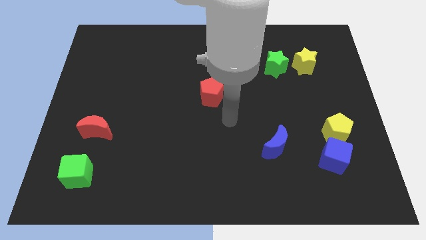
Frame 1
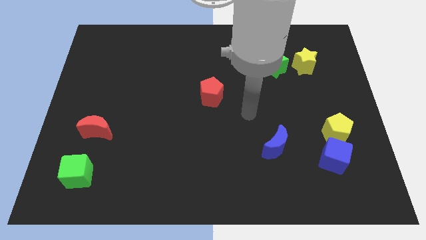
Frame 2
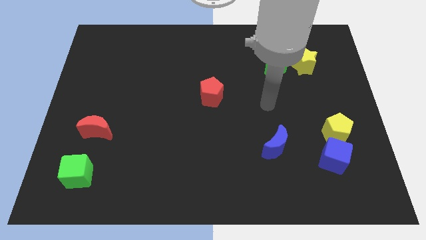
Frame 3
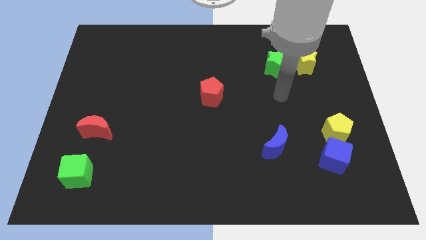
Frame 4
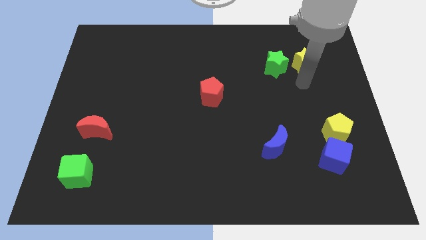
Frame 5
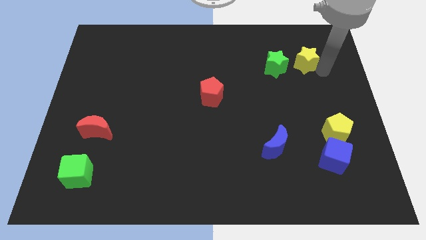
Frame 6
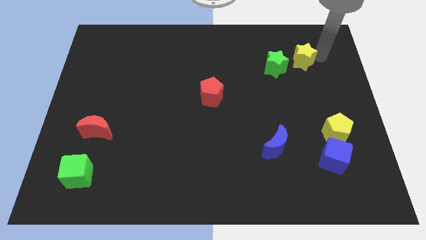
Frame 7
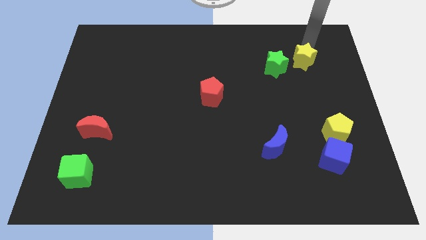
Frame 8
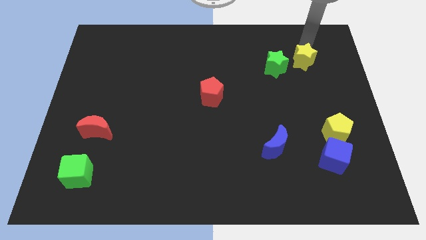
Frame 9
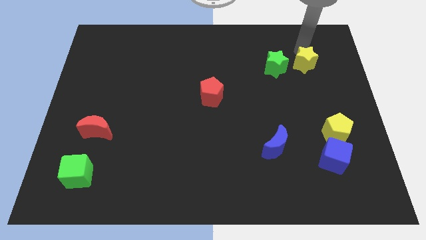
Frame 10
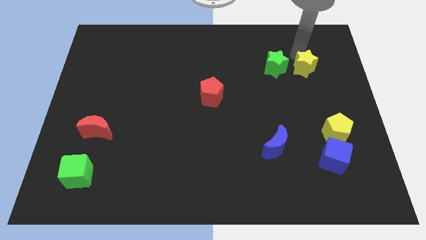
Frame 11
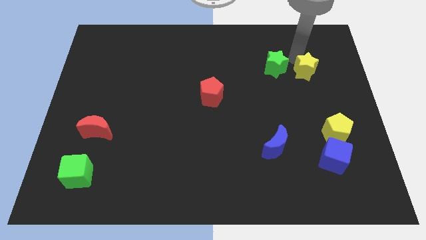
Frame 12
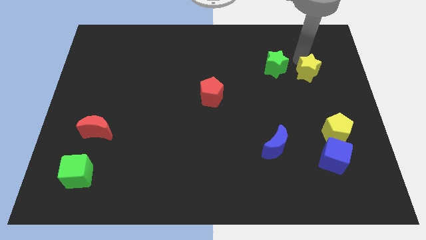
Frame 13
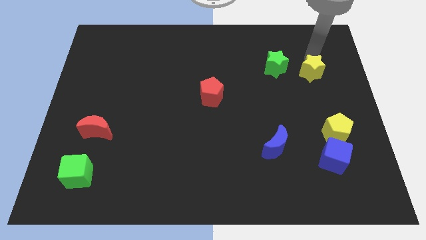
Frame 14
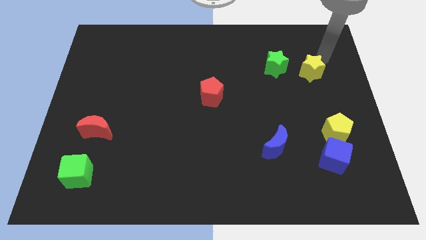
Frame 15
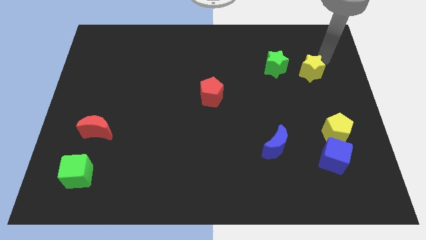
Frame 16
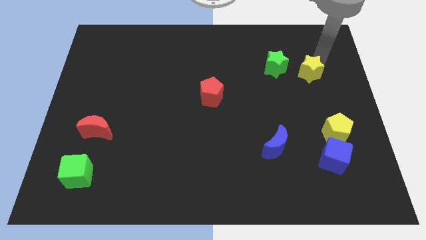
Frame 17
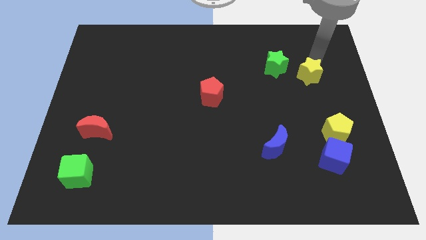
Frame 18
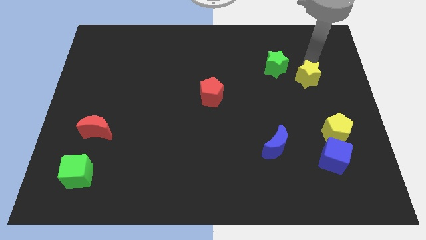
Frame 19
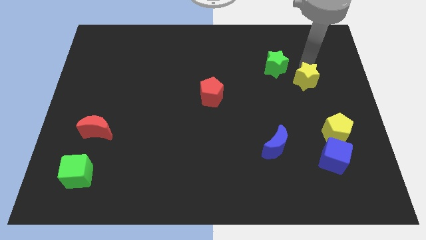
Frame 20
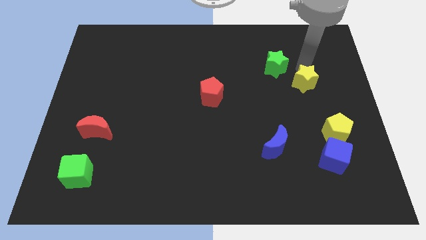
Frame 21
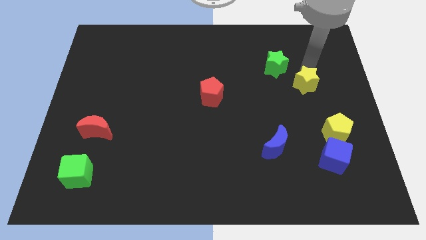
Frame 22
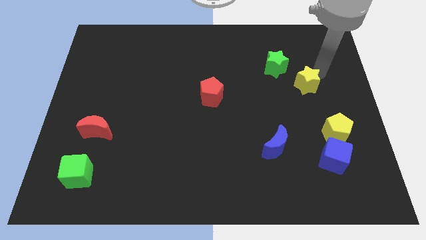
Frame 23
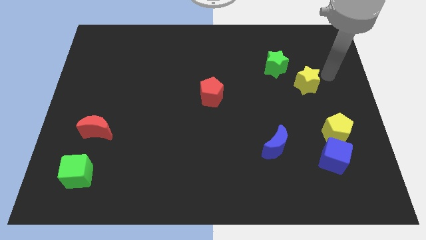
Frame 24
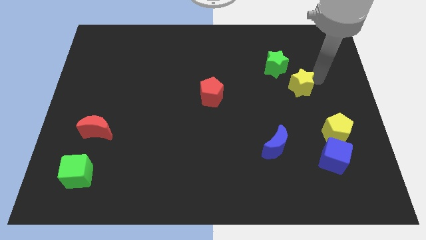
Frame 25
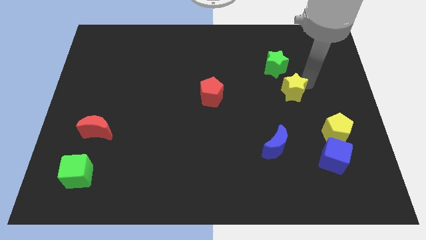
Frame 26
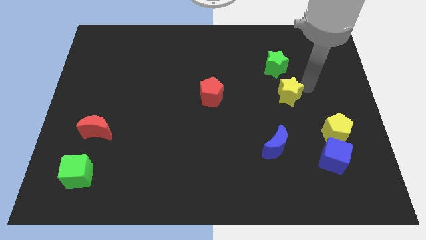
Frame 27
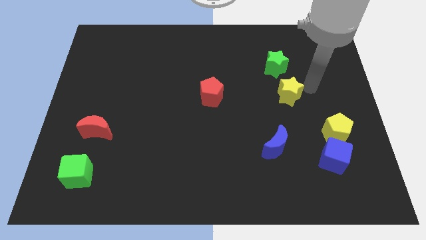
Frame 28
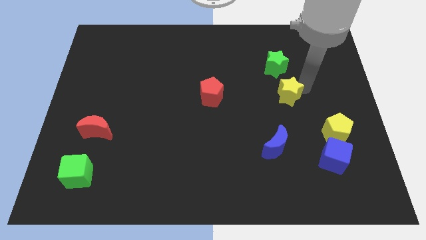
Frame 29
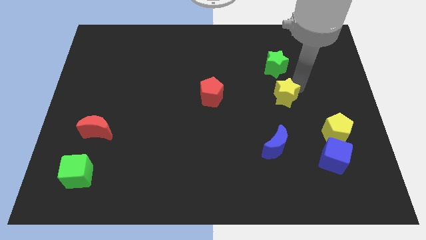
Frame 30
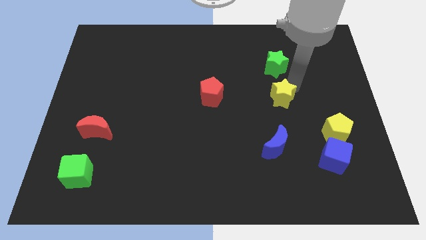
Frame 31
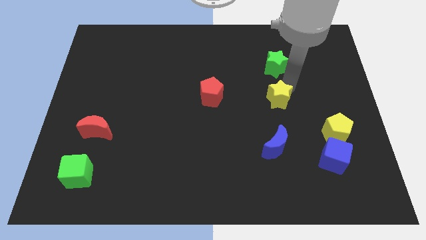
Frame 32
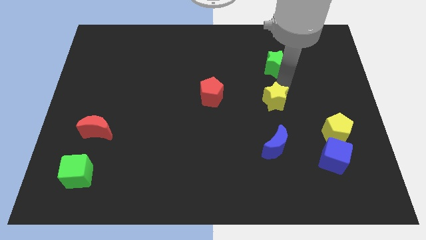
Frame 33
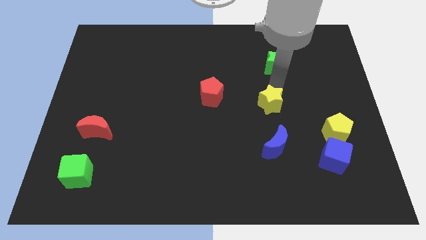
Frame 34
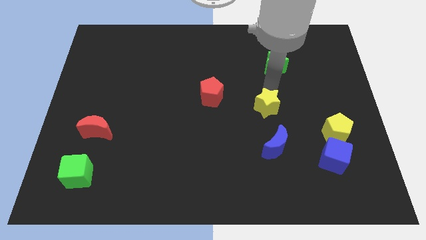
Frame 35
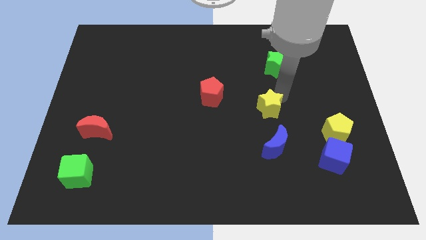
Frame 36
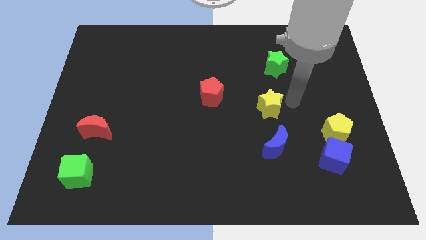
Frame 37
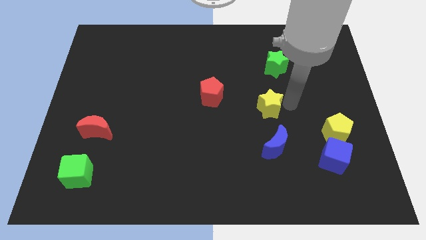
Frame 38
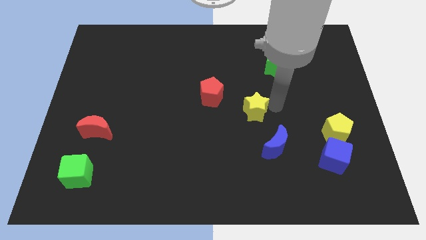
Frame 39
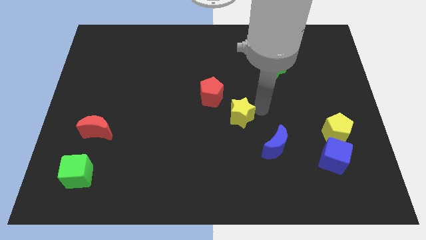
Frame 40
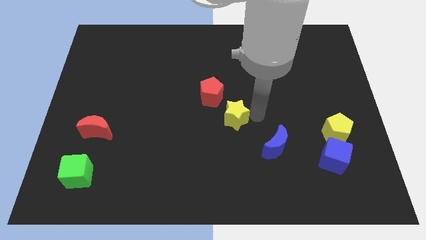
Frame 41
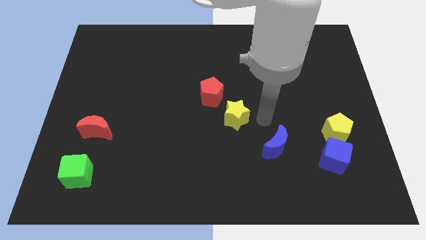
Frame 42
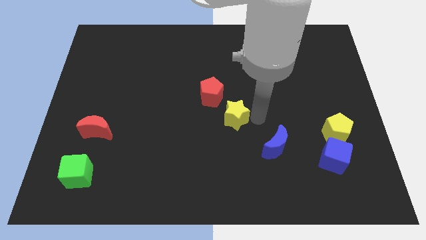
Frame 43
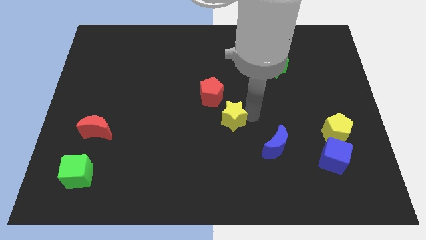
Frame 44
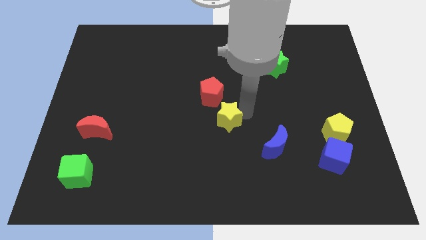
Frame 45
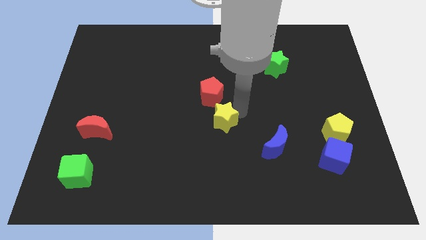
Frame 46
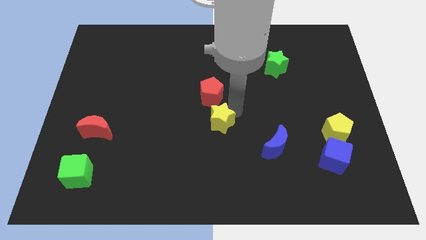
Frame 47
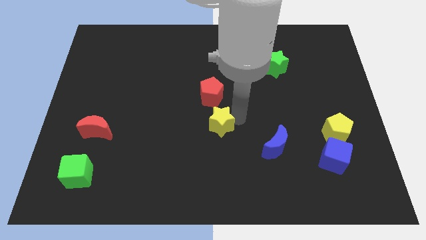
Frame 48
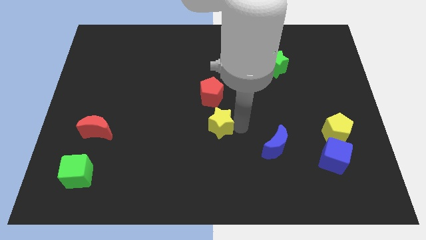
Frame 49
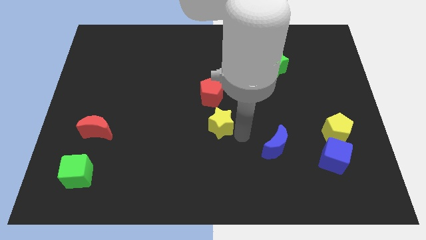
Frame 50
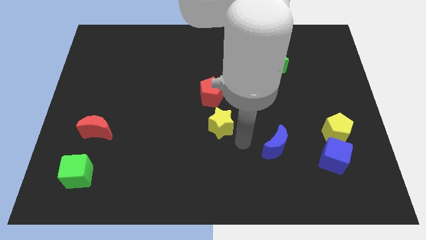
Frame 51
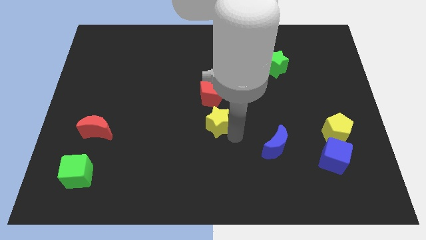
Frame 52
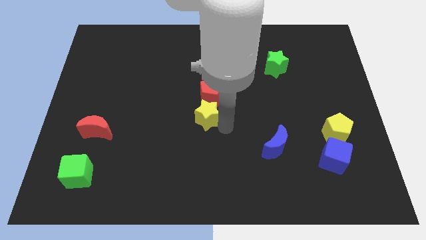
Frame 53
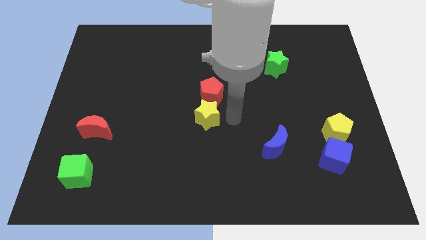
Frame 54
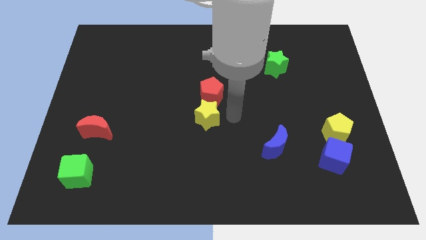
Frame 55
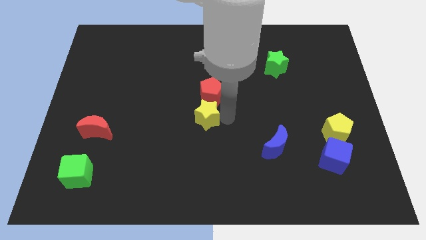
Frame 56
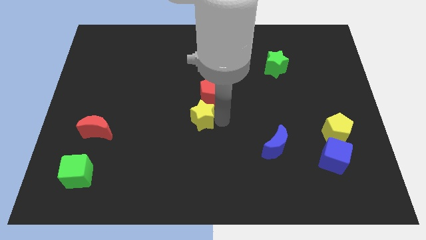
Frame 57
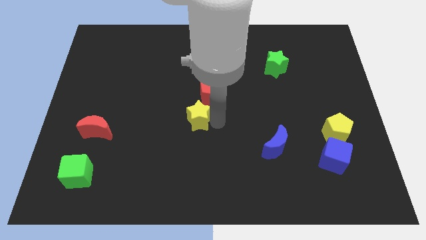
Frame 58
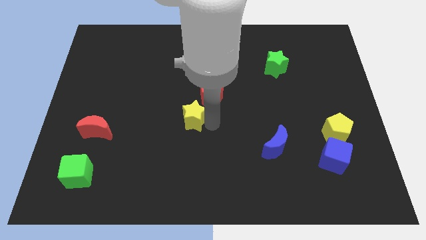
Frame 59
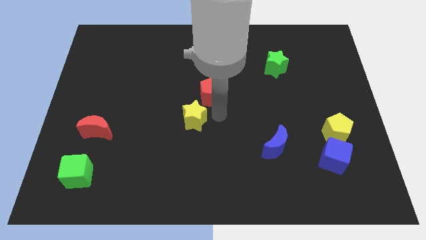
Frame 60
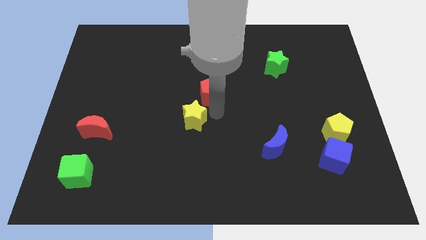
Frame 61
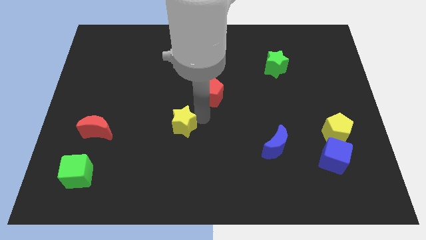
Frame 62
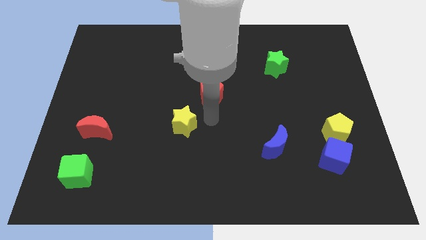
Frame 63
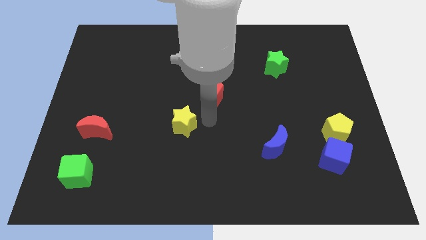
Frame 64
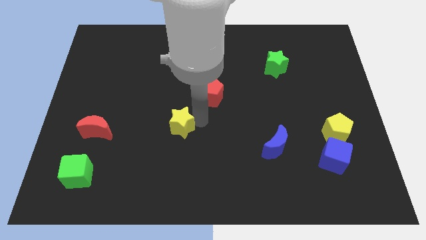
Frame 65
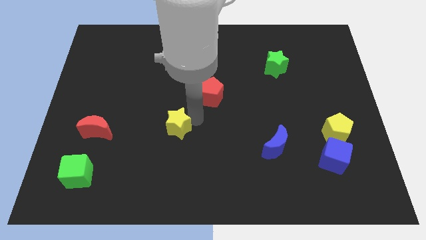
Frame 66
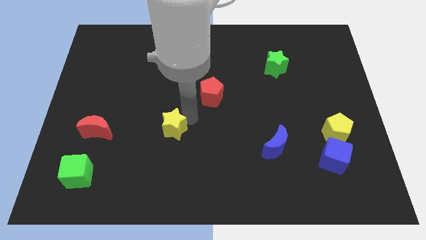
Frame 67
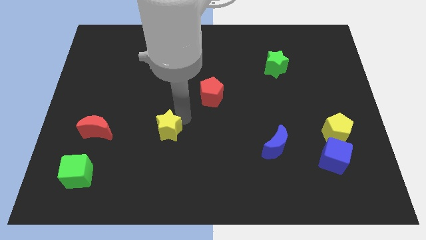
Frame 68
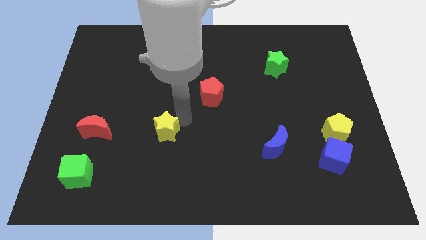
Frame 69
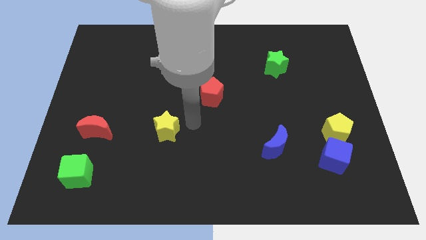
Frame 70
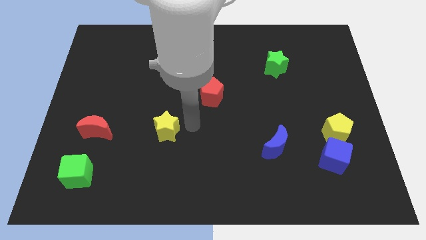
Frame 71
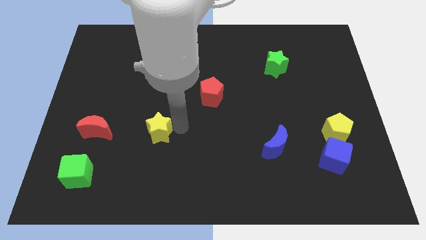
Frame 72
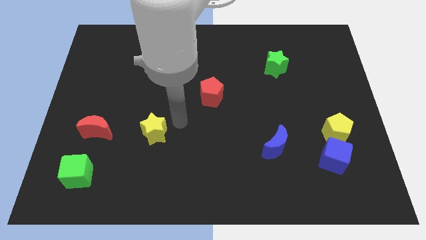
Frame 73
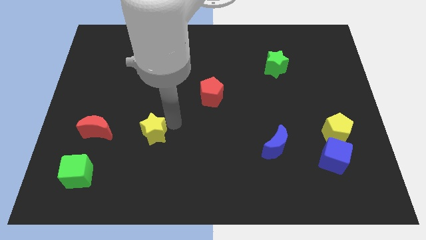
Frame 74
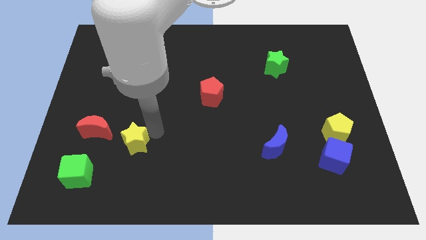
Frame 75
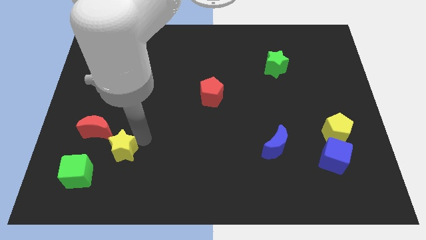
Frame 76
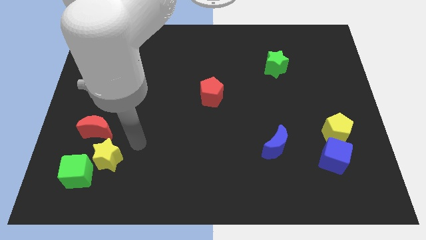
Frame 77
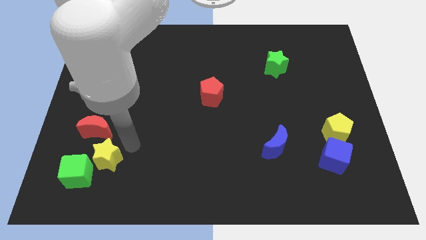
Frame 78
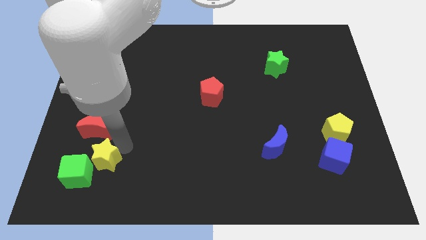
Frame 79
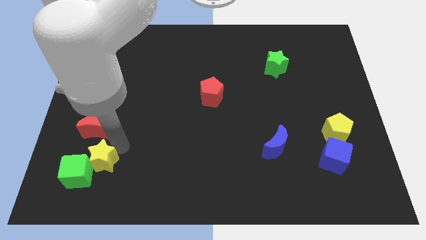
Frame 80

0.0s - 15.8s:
put the yellow star towards the green cube
